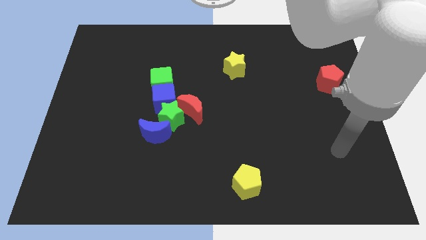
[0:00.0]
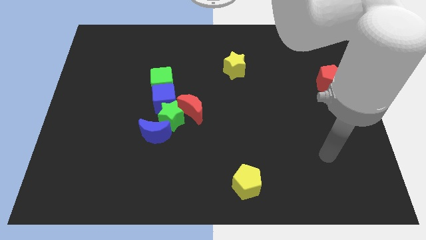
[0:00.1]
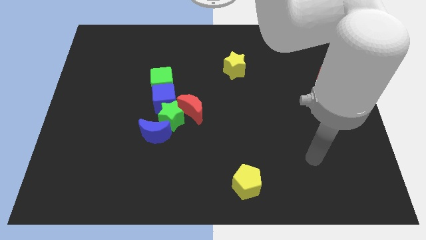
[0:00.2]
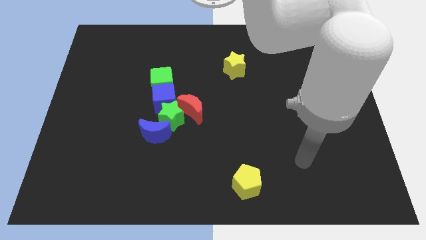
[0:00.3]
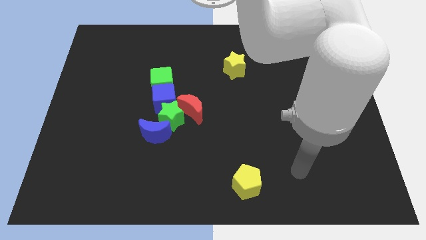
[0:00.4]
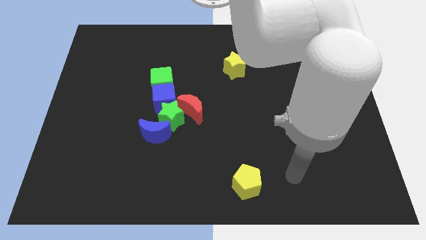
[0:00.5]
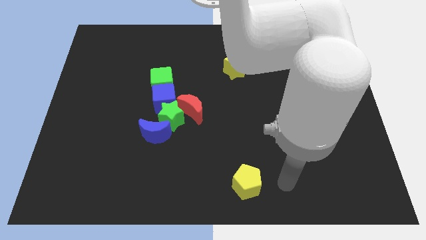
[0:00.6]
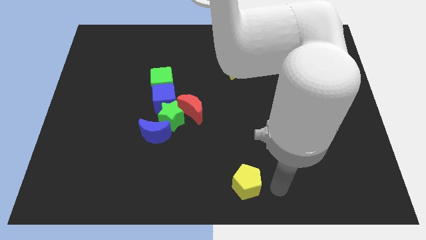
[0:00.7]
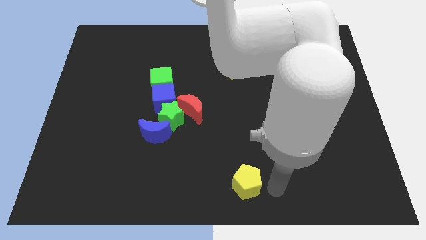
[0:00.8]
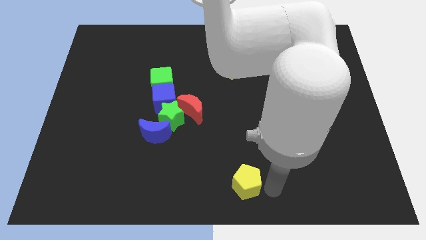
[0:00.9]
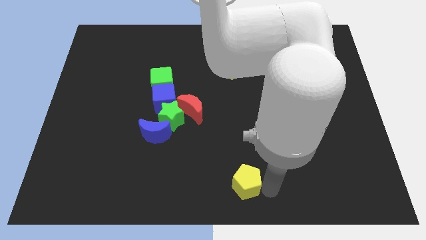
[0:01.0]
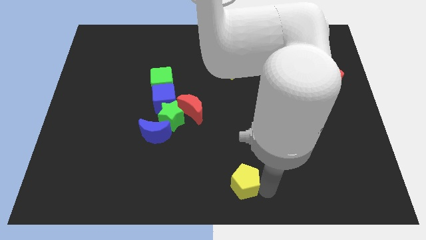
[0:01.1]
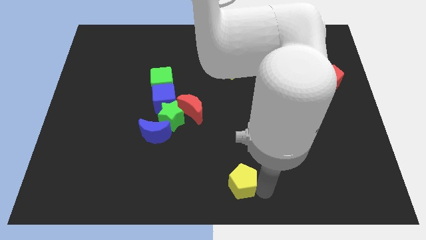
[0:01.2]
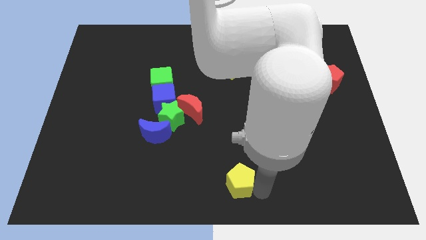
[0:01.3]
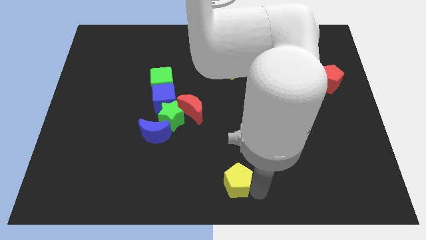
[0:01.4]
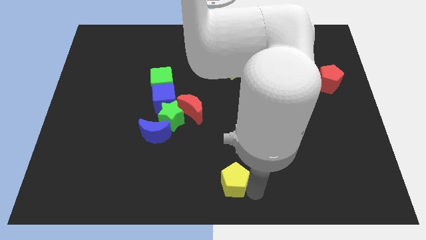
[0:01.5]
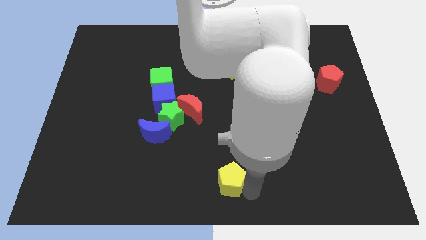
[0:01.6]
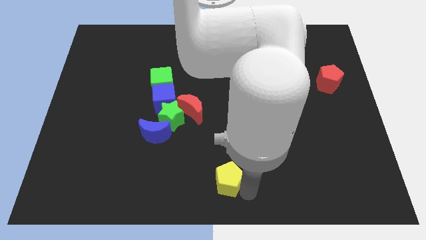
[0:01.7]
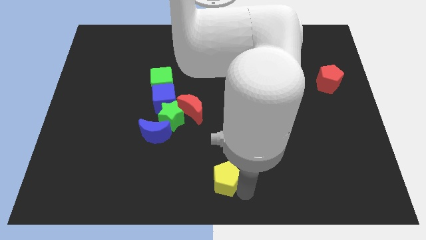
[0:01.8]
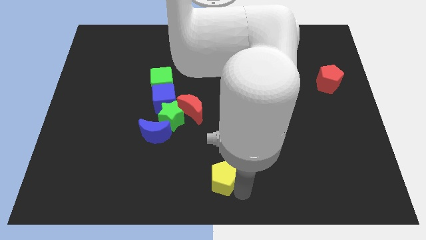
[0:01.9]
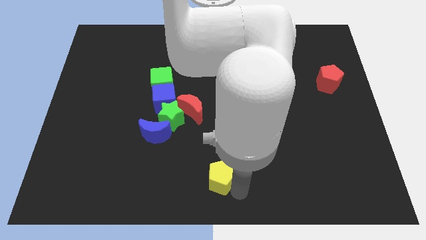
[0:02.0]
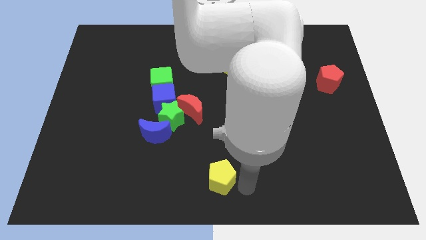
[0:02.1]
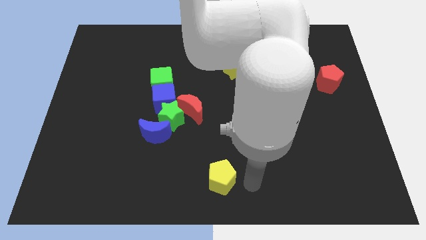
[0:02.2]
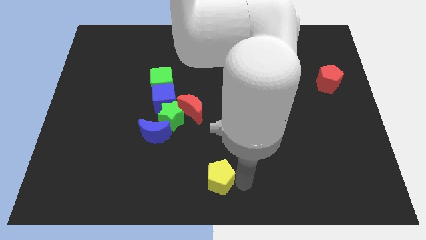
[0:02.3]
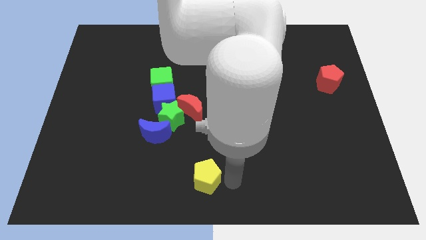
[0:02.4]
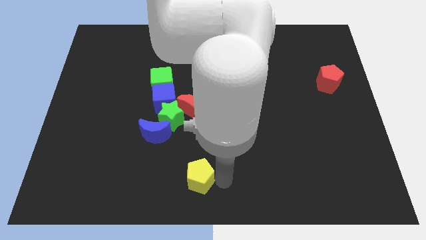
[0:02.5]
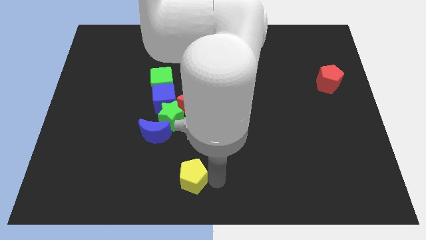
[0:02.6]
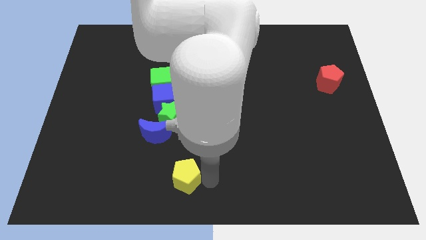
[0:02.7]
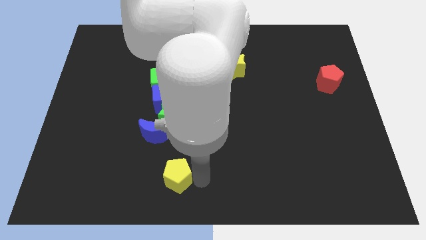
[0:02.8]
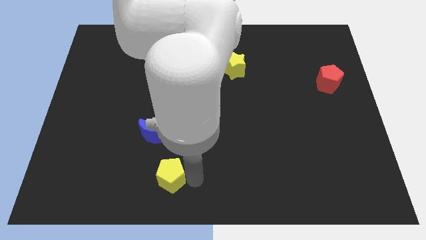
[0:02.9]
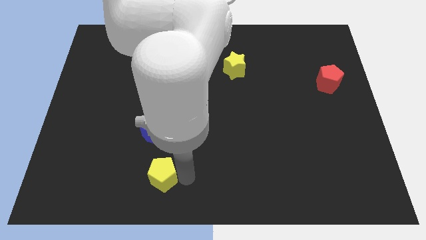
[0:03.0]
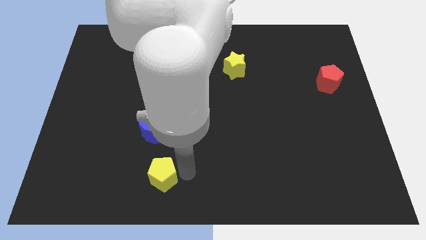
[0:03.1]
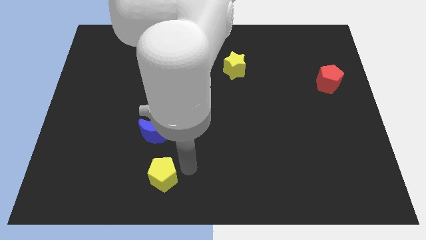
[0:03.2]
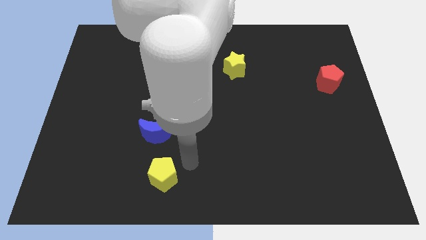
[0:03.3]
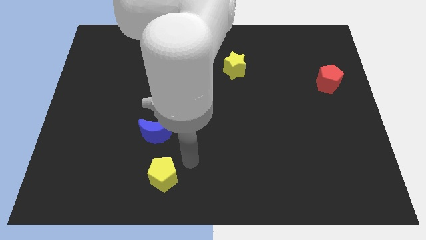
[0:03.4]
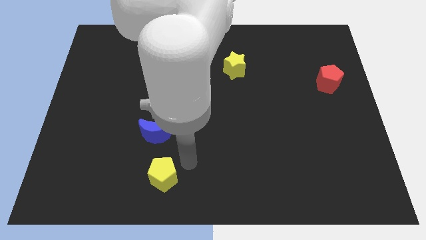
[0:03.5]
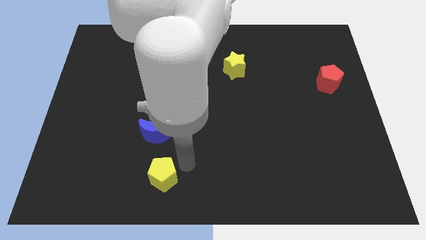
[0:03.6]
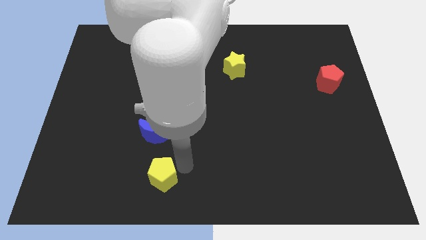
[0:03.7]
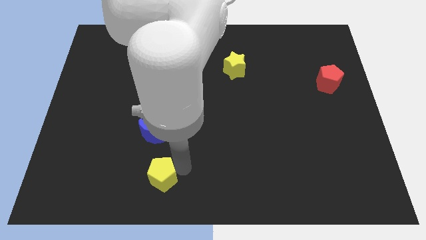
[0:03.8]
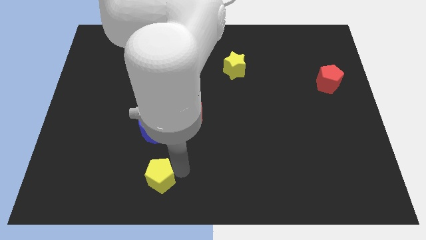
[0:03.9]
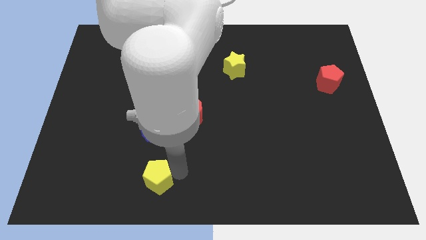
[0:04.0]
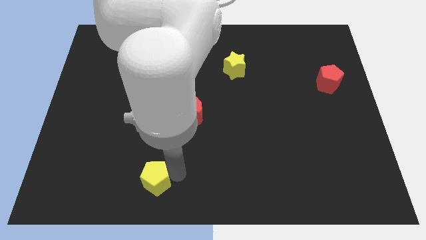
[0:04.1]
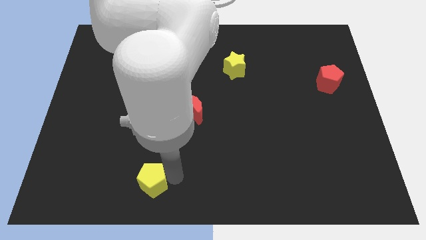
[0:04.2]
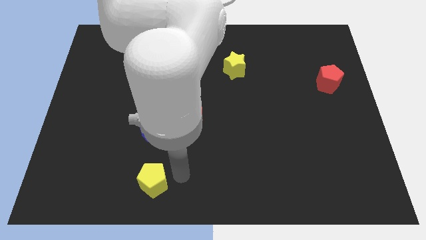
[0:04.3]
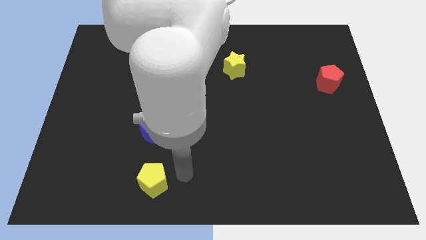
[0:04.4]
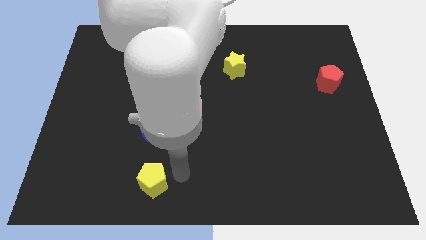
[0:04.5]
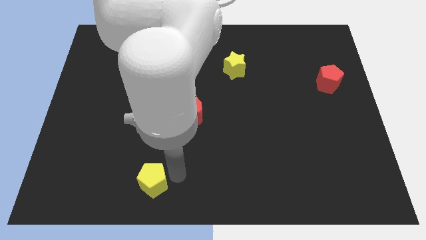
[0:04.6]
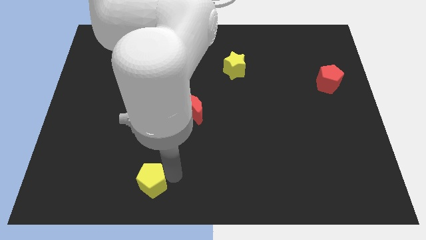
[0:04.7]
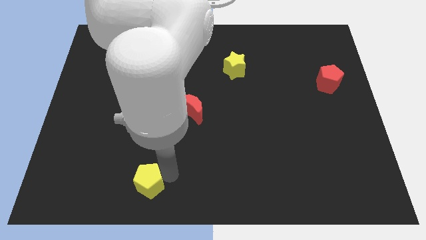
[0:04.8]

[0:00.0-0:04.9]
slide the yellow pentagon left

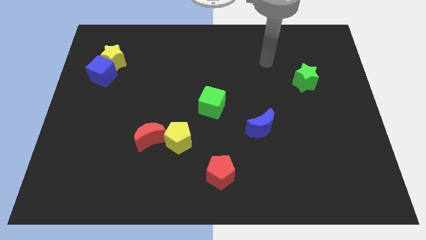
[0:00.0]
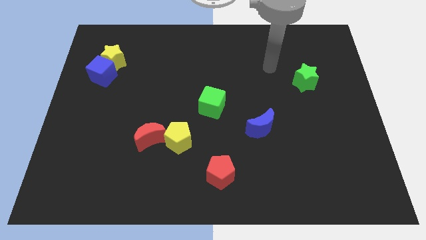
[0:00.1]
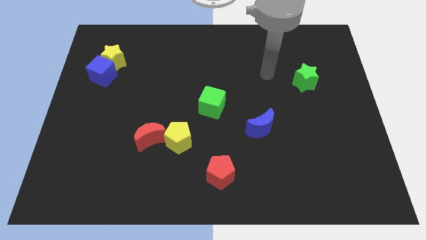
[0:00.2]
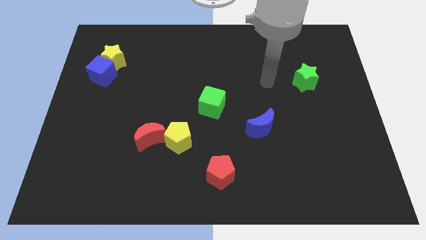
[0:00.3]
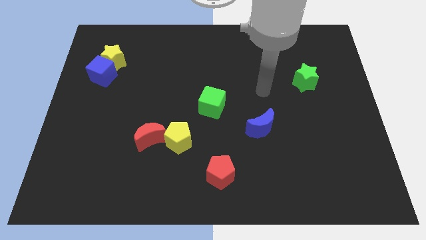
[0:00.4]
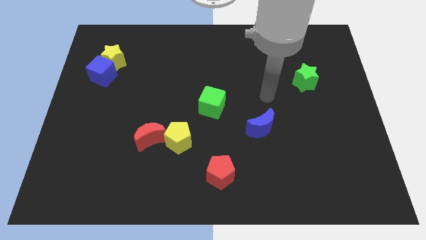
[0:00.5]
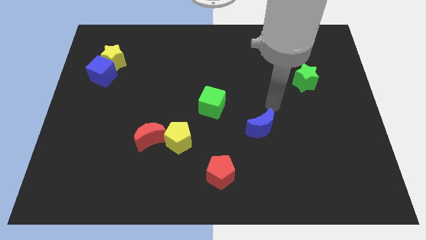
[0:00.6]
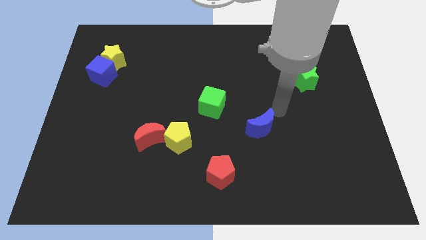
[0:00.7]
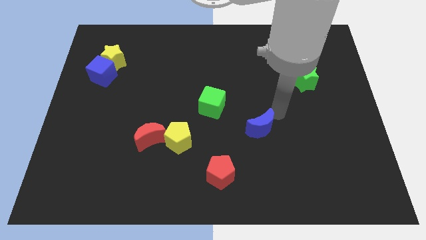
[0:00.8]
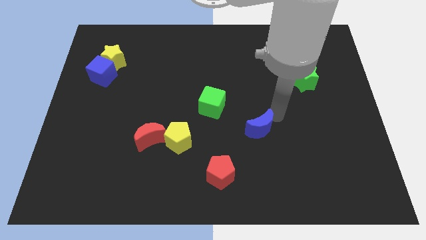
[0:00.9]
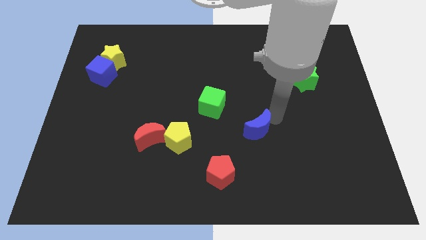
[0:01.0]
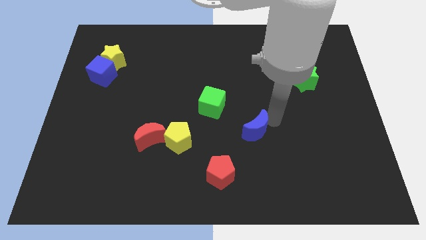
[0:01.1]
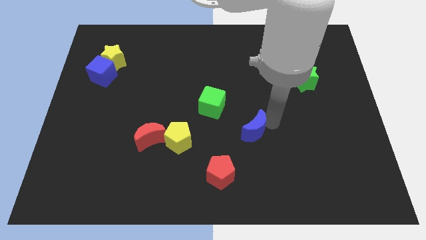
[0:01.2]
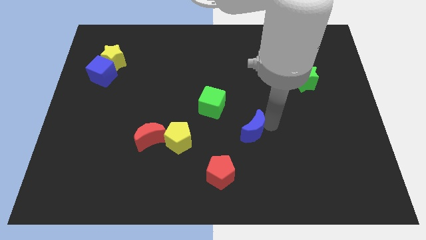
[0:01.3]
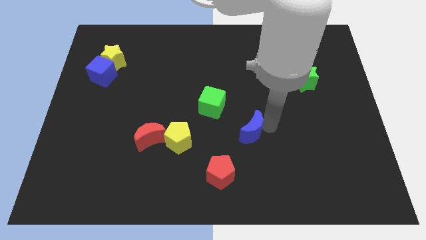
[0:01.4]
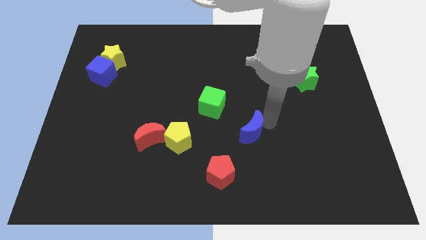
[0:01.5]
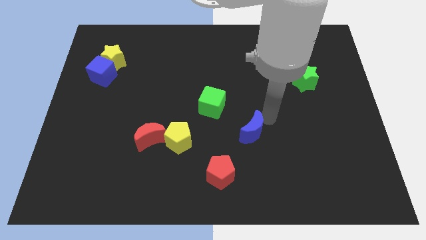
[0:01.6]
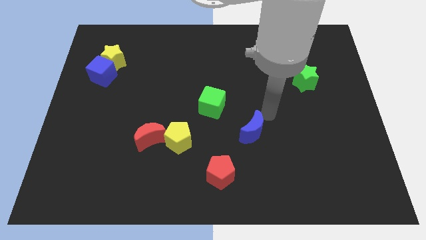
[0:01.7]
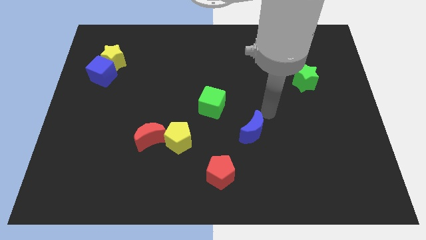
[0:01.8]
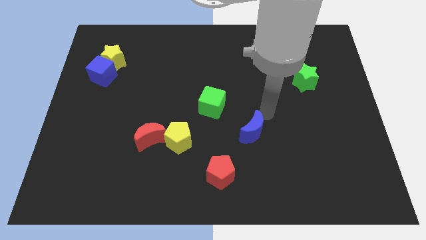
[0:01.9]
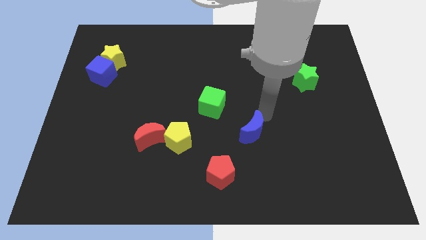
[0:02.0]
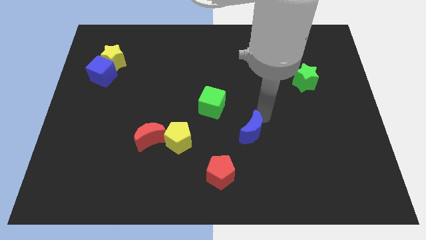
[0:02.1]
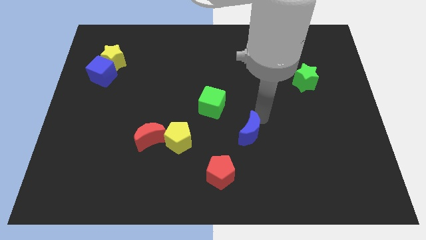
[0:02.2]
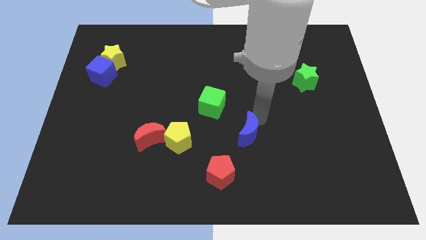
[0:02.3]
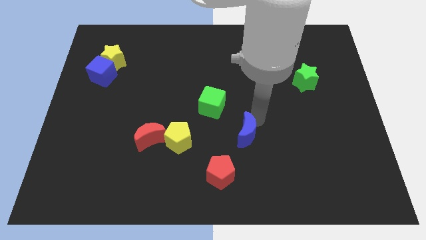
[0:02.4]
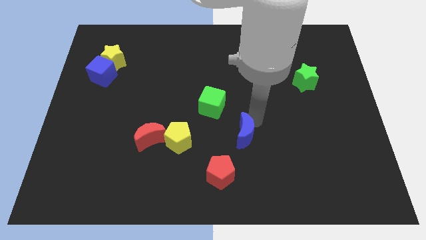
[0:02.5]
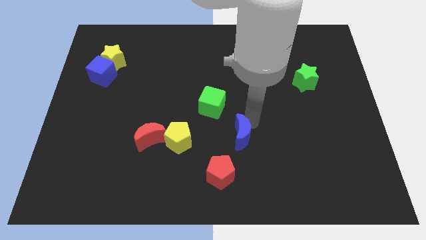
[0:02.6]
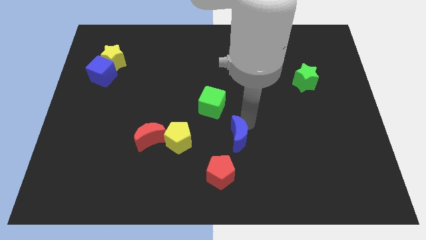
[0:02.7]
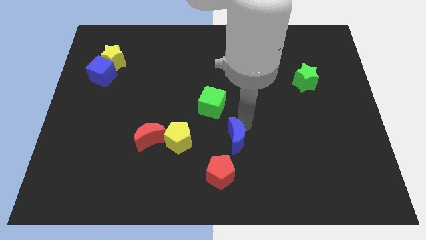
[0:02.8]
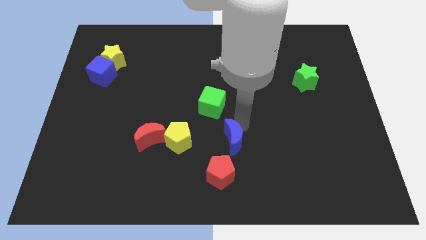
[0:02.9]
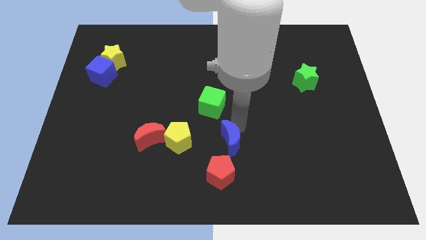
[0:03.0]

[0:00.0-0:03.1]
move the blue moon a bit downwards and left

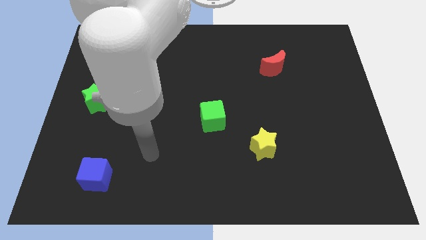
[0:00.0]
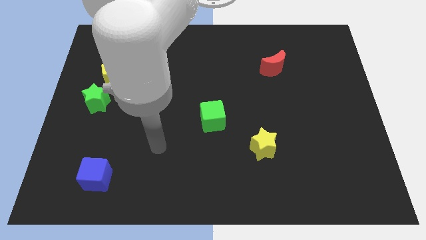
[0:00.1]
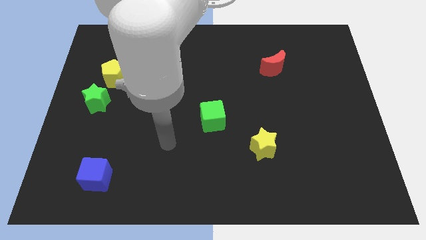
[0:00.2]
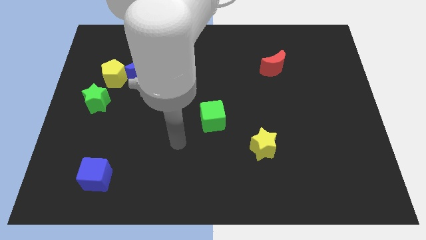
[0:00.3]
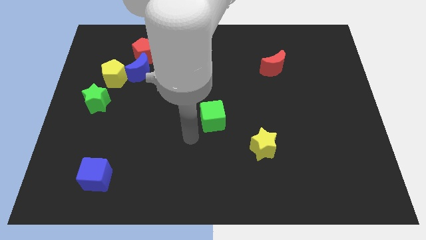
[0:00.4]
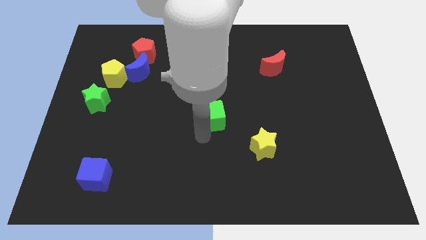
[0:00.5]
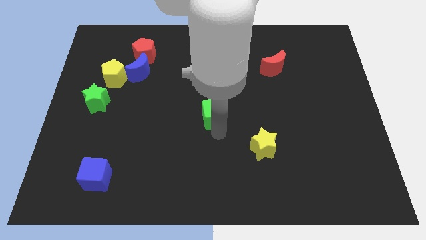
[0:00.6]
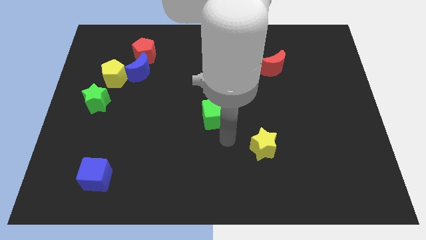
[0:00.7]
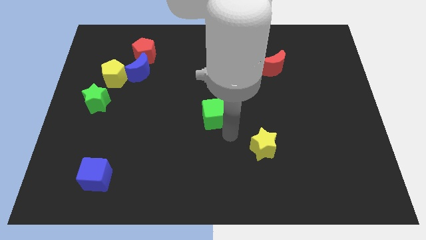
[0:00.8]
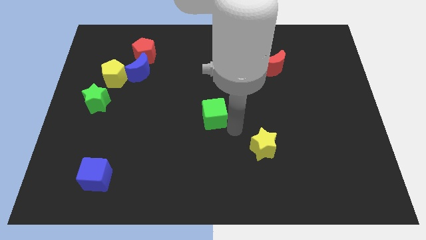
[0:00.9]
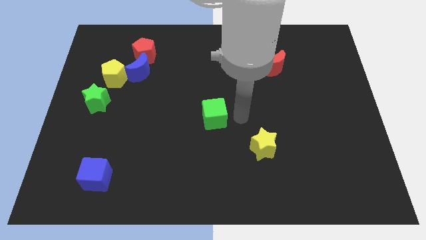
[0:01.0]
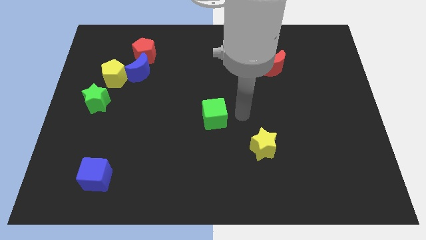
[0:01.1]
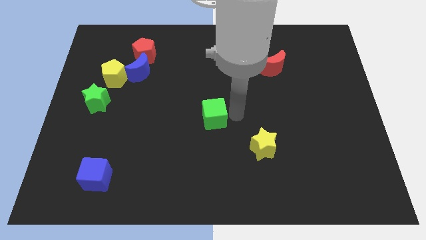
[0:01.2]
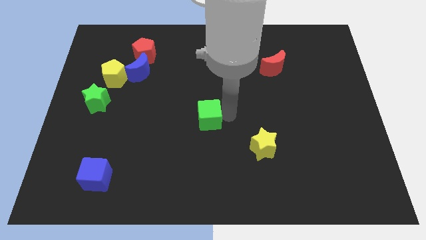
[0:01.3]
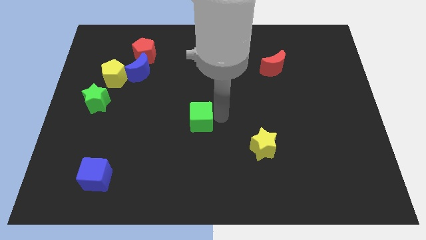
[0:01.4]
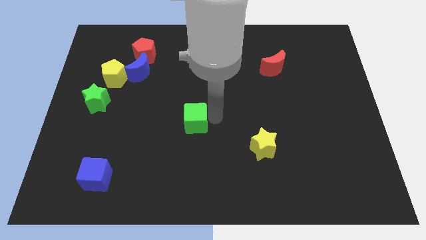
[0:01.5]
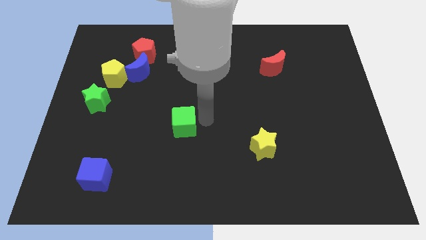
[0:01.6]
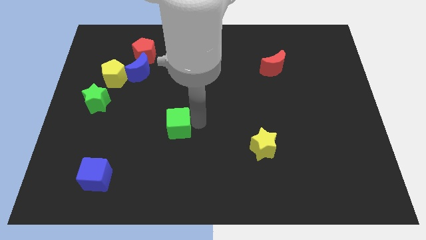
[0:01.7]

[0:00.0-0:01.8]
slightly slide the green cube left
